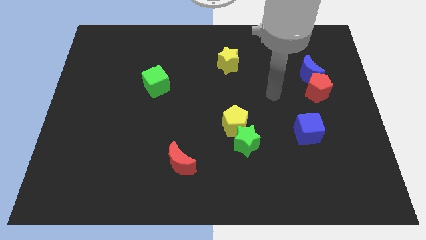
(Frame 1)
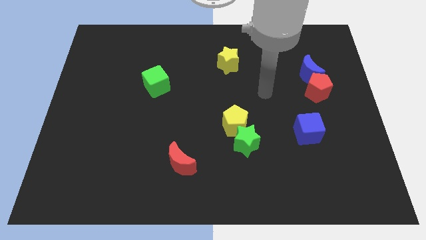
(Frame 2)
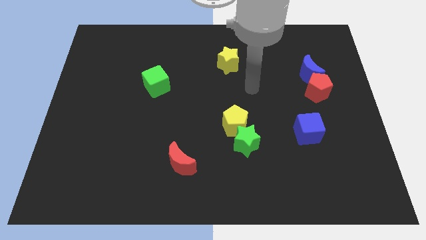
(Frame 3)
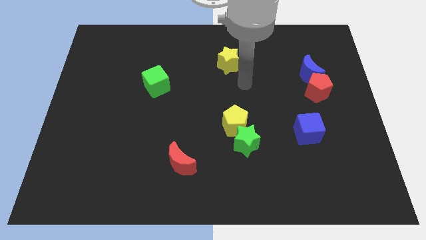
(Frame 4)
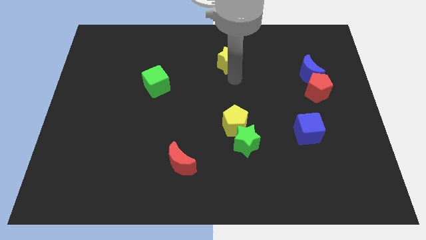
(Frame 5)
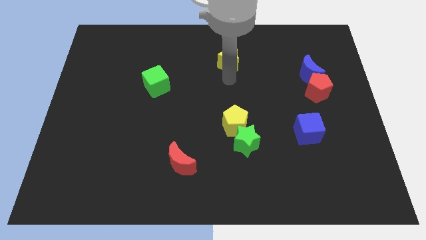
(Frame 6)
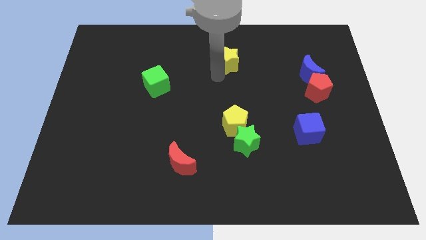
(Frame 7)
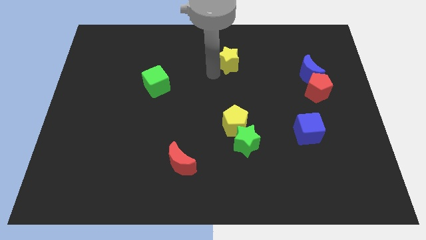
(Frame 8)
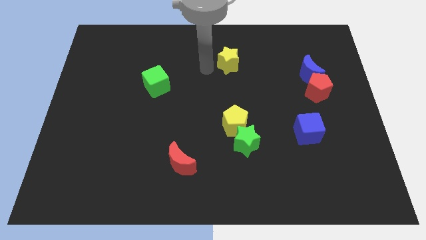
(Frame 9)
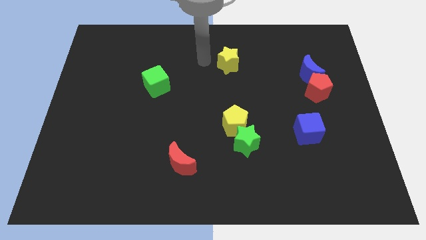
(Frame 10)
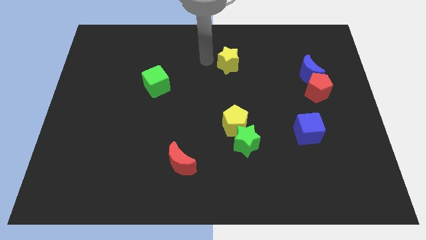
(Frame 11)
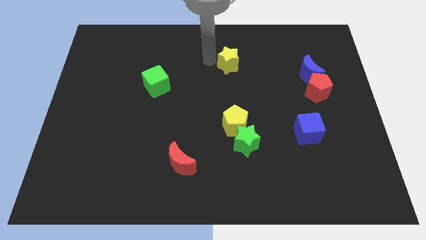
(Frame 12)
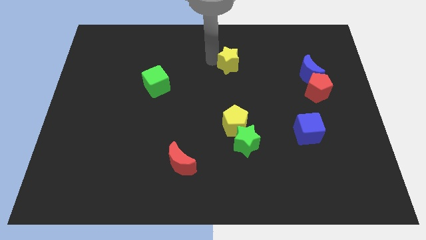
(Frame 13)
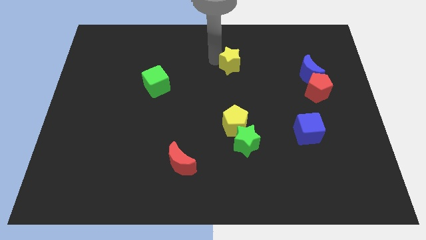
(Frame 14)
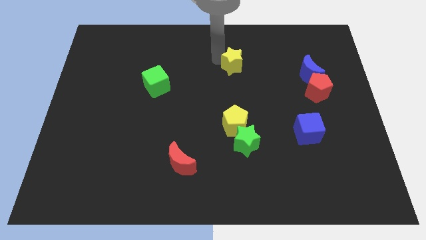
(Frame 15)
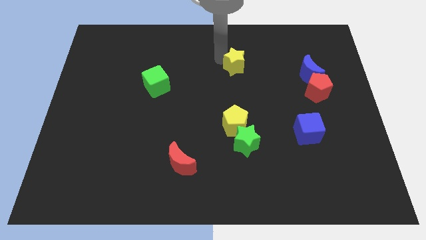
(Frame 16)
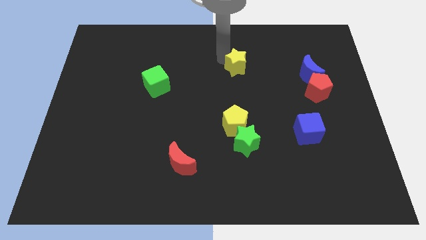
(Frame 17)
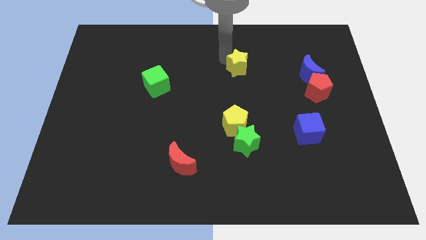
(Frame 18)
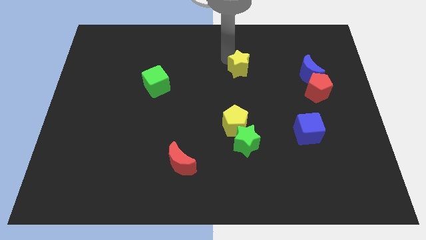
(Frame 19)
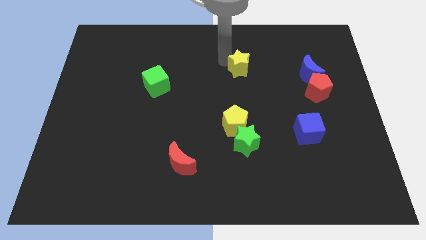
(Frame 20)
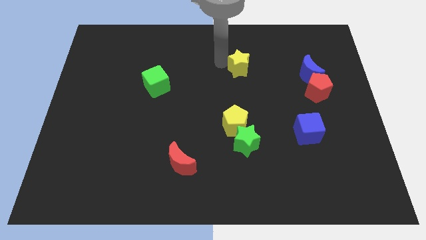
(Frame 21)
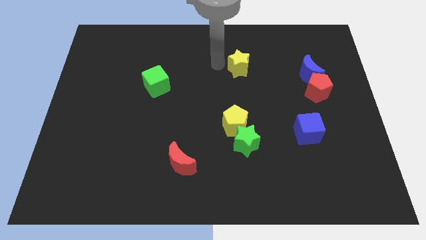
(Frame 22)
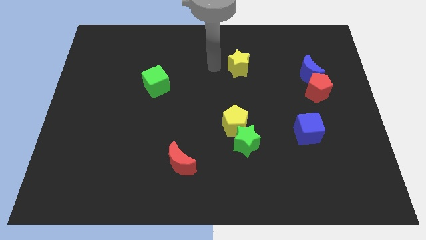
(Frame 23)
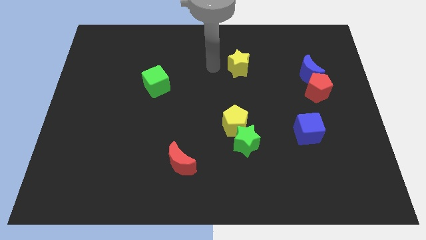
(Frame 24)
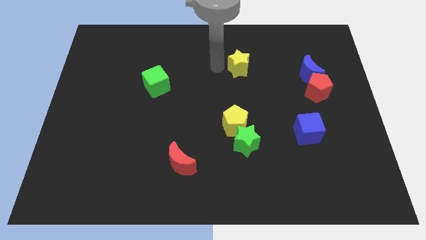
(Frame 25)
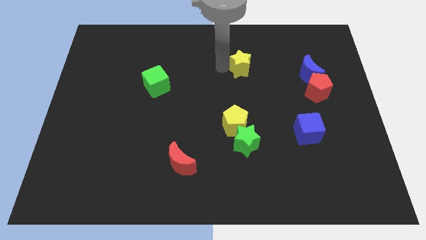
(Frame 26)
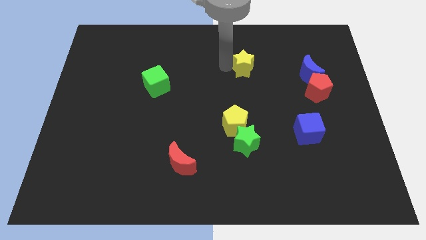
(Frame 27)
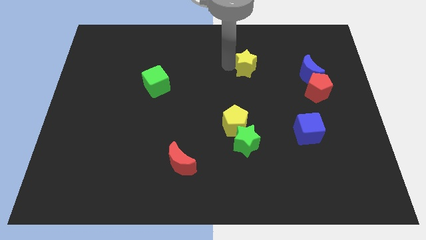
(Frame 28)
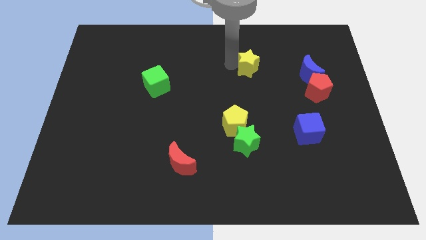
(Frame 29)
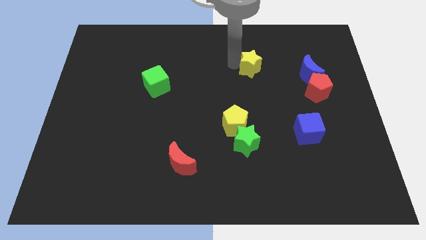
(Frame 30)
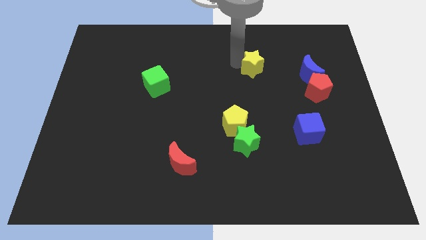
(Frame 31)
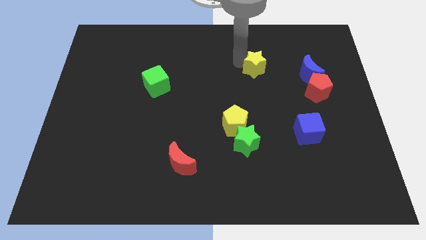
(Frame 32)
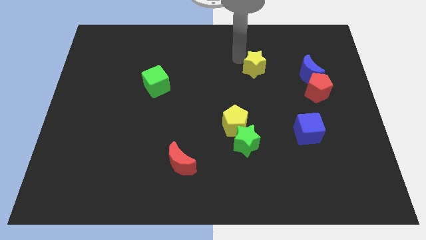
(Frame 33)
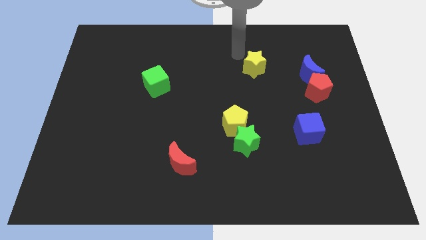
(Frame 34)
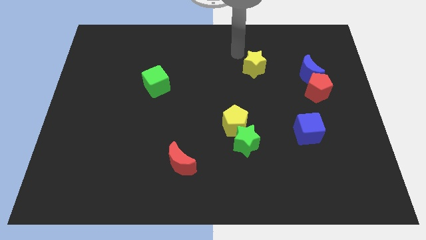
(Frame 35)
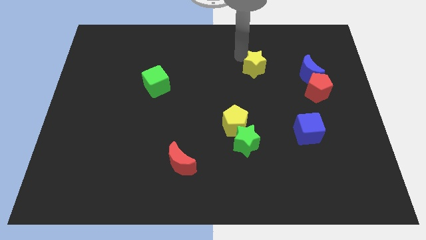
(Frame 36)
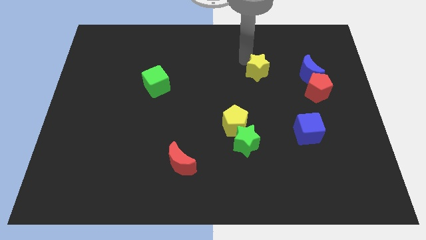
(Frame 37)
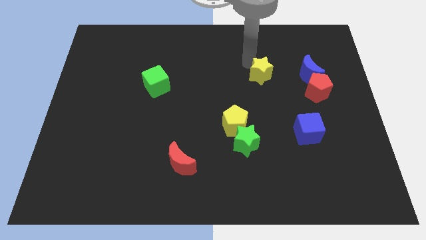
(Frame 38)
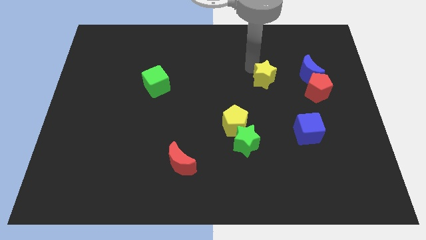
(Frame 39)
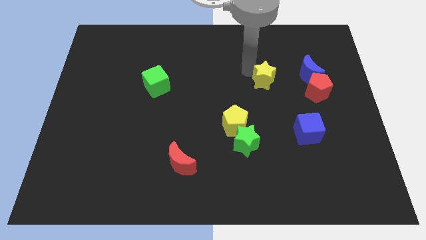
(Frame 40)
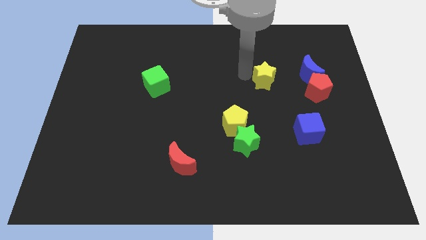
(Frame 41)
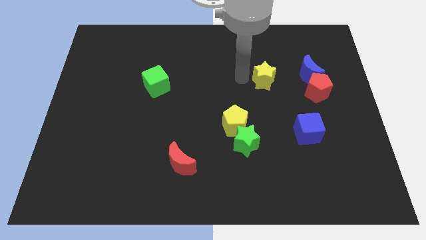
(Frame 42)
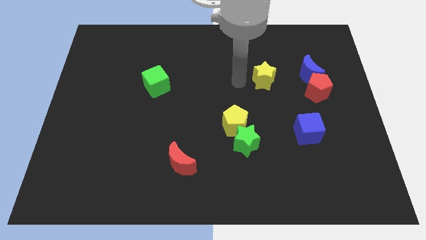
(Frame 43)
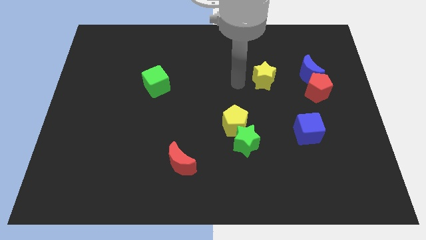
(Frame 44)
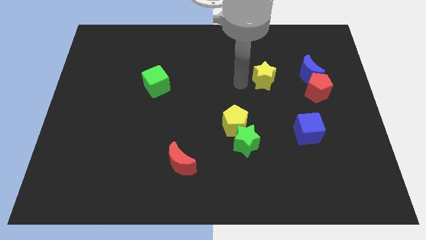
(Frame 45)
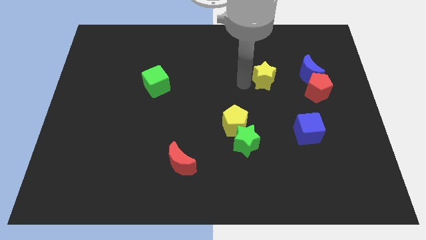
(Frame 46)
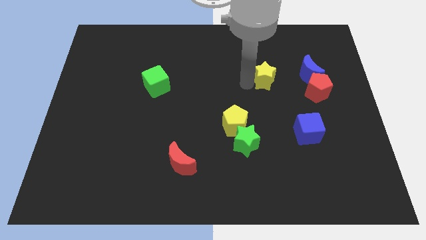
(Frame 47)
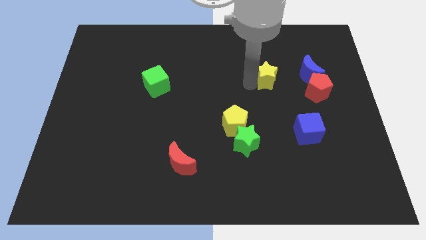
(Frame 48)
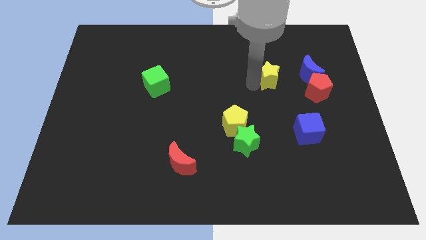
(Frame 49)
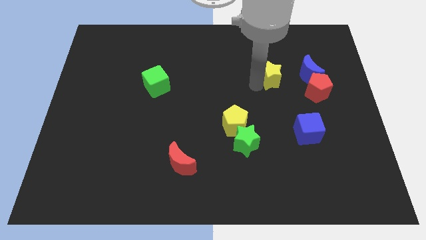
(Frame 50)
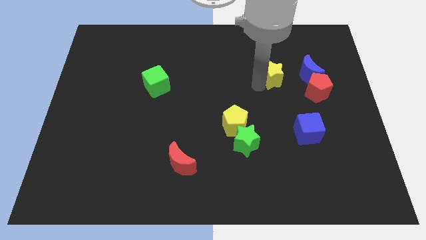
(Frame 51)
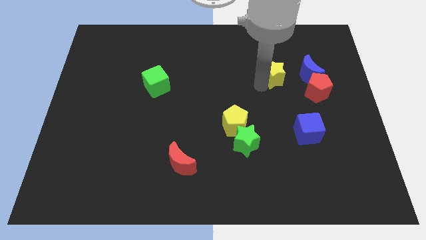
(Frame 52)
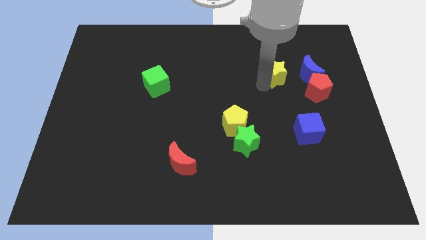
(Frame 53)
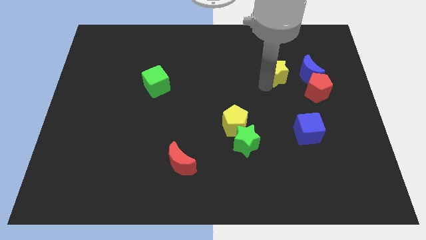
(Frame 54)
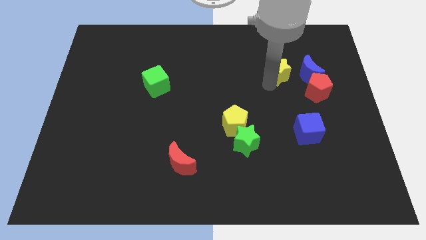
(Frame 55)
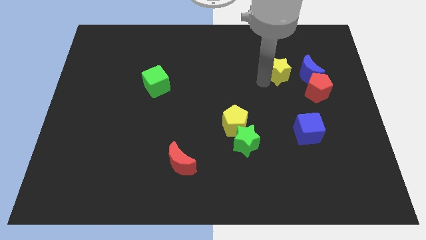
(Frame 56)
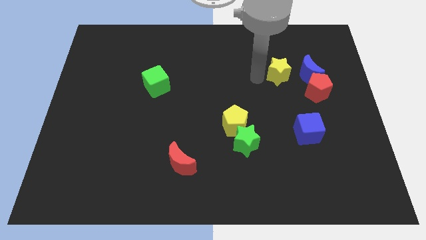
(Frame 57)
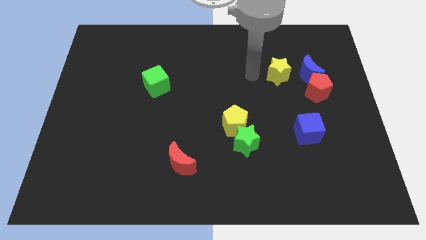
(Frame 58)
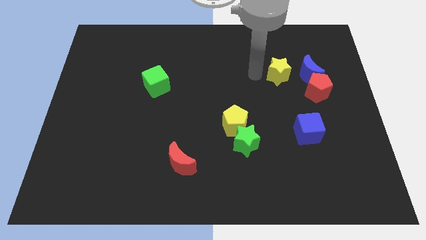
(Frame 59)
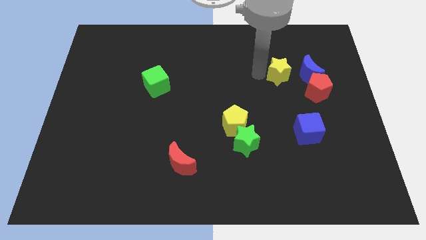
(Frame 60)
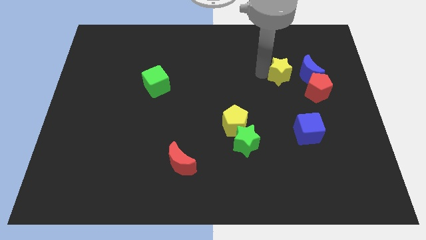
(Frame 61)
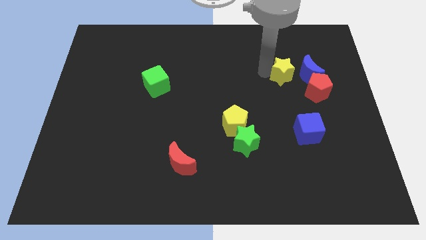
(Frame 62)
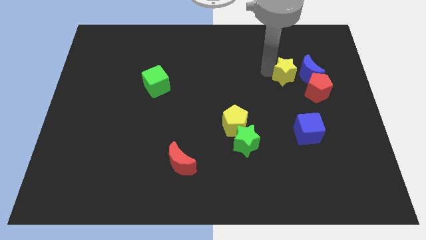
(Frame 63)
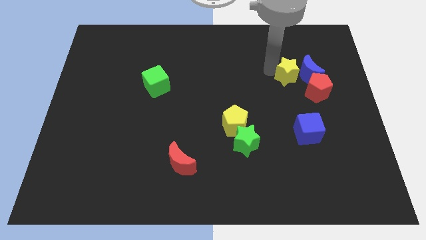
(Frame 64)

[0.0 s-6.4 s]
slide the yellow star close to the blue moon

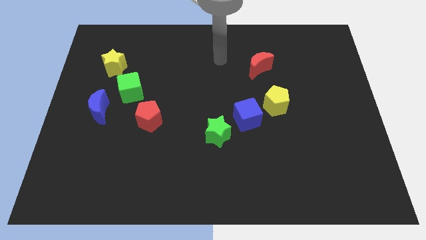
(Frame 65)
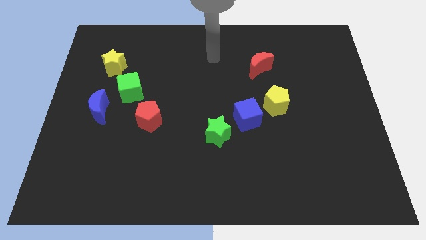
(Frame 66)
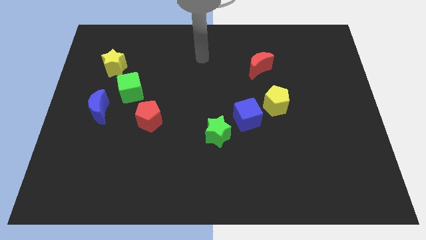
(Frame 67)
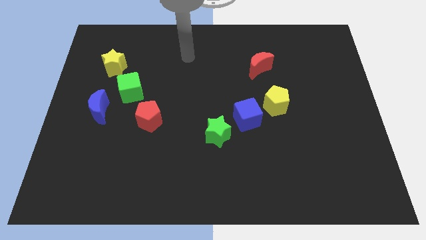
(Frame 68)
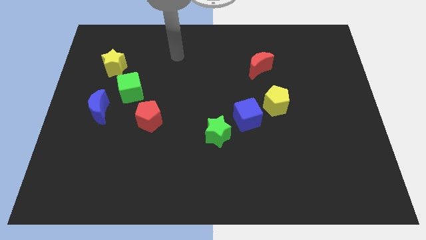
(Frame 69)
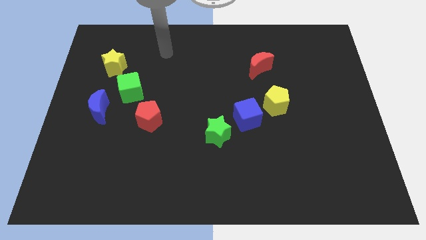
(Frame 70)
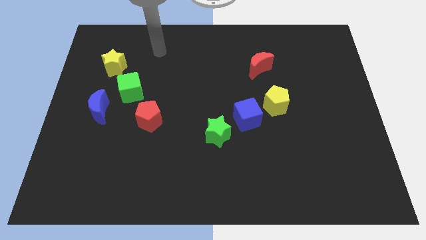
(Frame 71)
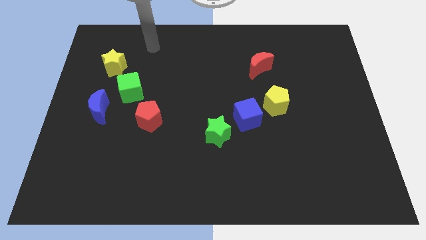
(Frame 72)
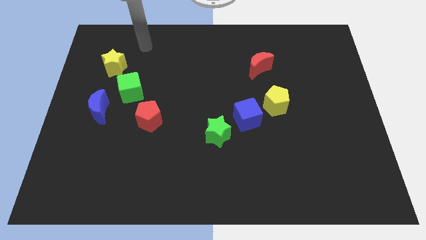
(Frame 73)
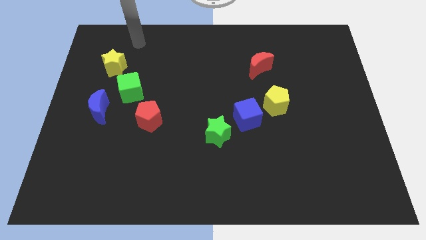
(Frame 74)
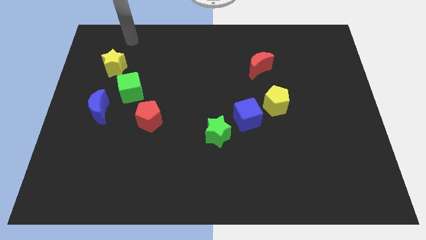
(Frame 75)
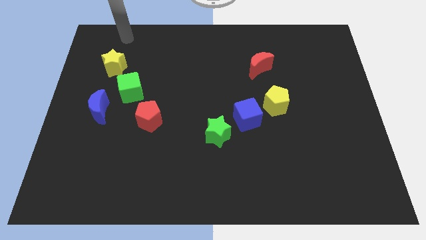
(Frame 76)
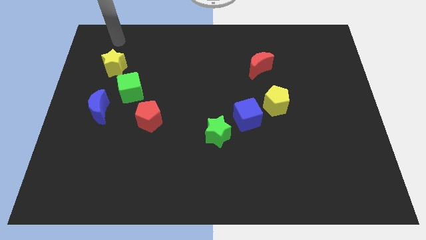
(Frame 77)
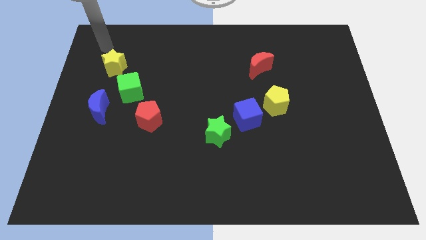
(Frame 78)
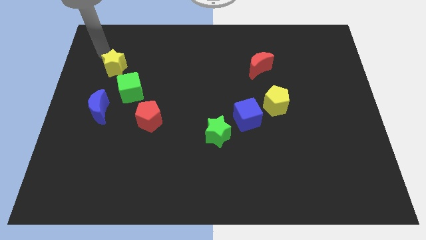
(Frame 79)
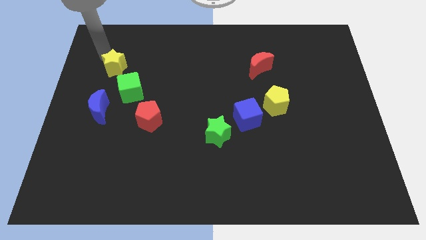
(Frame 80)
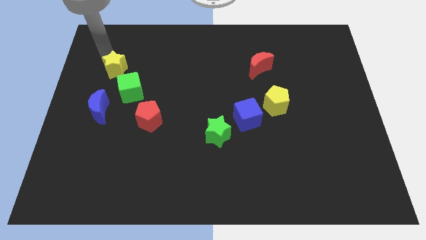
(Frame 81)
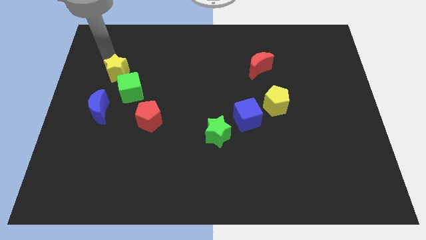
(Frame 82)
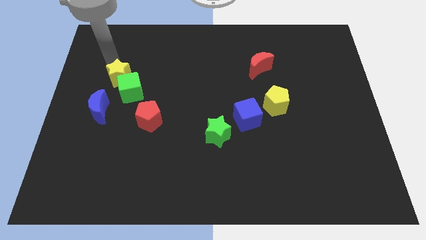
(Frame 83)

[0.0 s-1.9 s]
push the yellow star towards the green cube
